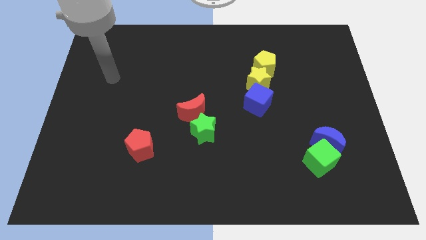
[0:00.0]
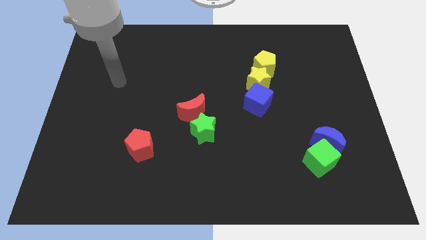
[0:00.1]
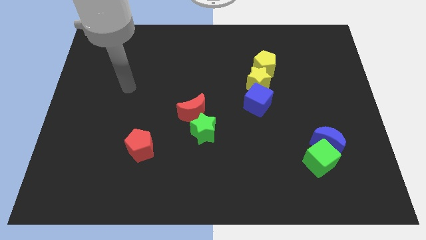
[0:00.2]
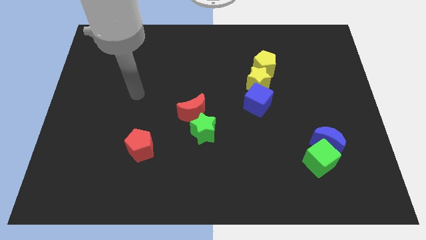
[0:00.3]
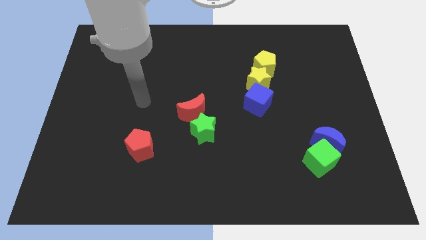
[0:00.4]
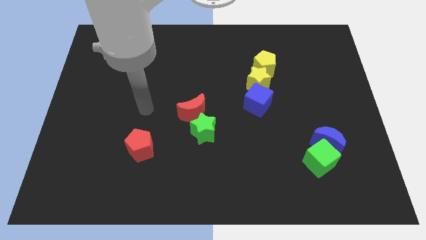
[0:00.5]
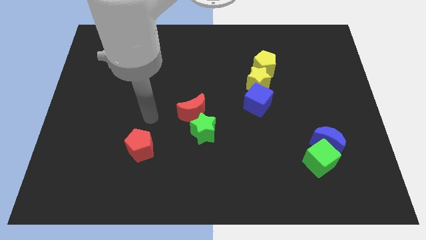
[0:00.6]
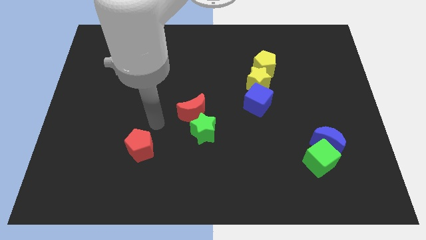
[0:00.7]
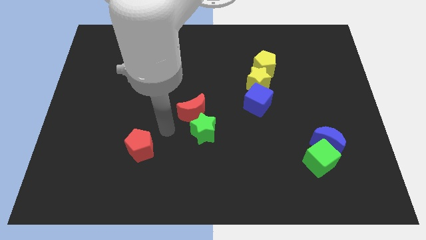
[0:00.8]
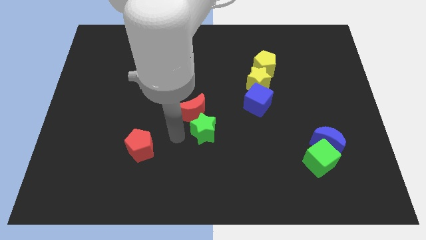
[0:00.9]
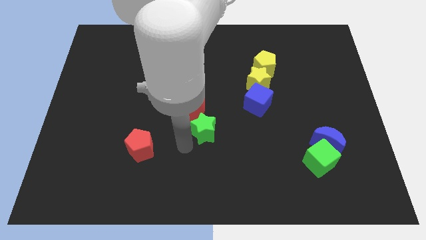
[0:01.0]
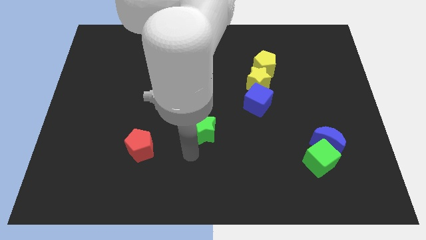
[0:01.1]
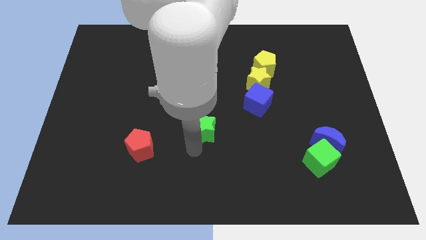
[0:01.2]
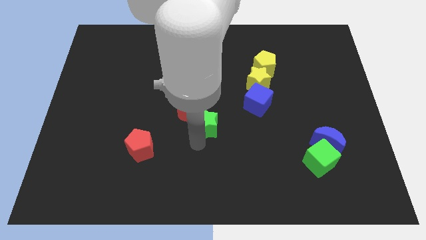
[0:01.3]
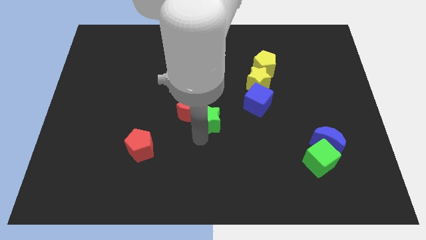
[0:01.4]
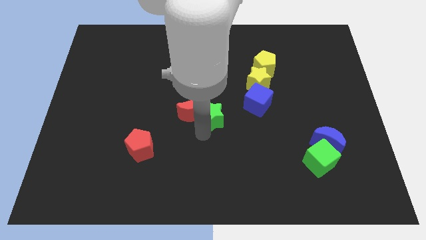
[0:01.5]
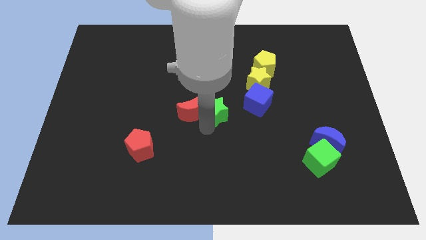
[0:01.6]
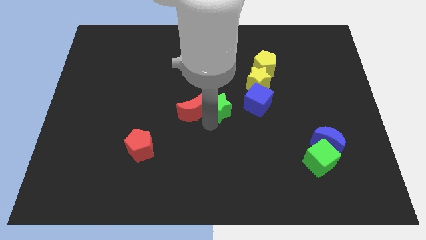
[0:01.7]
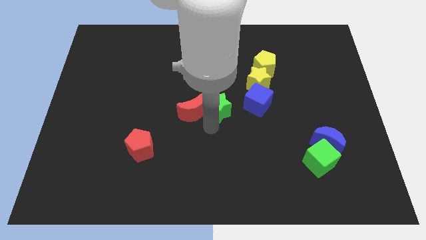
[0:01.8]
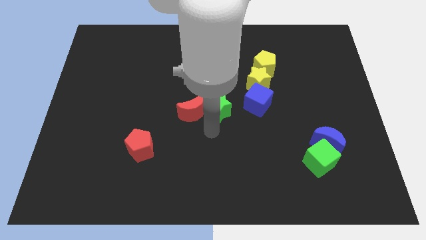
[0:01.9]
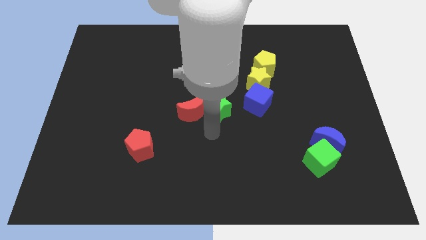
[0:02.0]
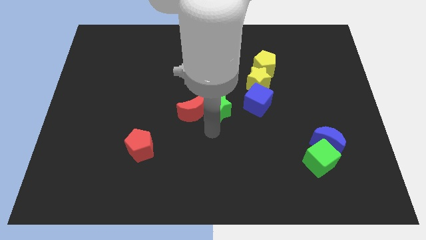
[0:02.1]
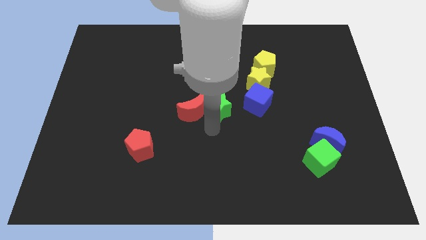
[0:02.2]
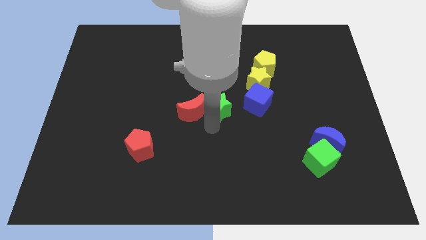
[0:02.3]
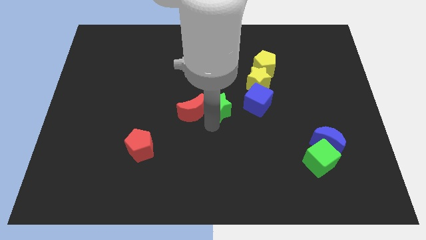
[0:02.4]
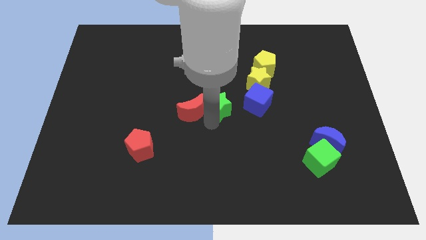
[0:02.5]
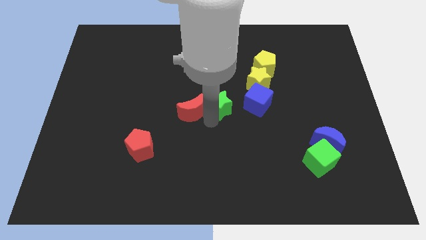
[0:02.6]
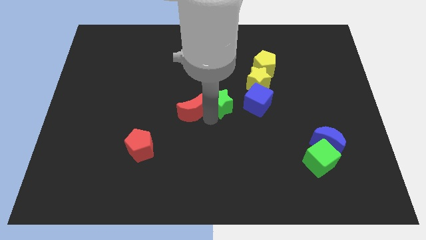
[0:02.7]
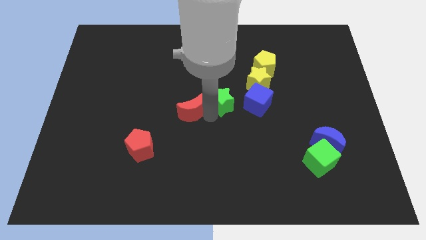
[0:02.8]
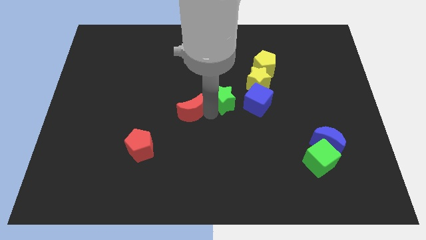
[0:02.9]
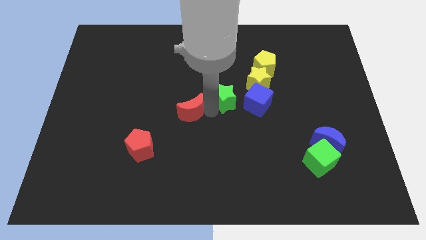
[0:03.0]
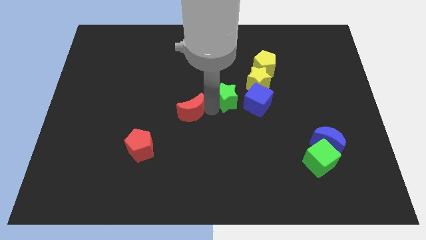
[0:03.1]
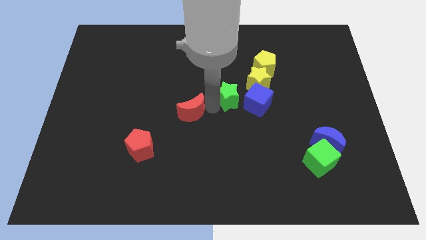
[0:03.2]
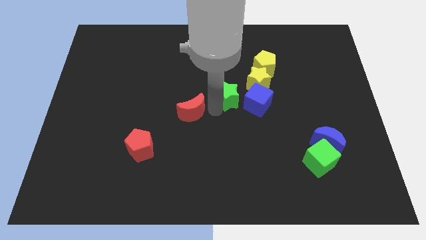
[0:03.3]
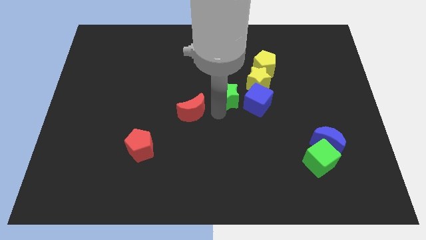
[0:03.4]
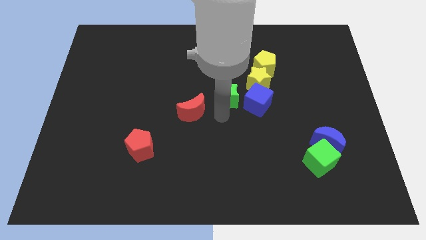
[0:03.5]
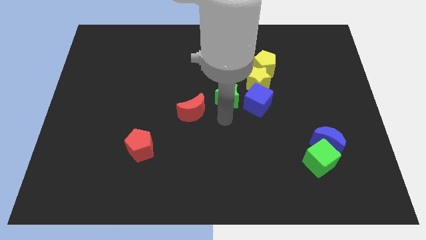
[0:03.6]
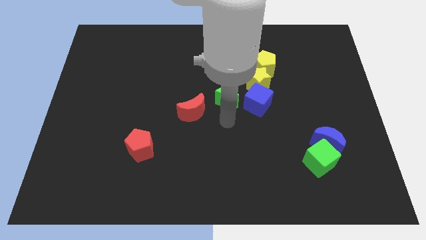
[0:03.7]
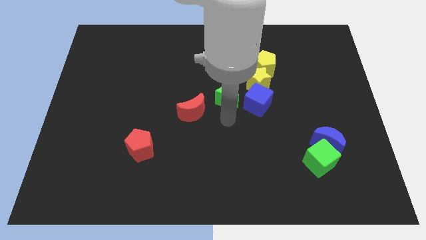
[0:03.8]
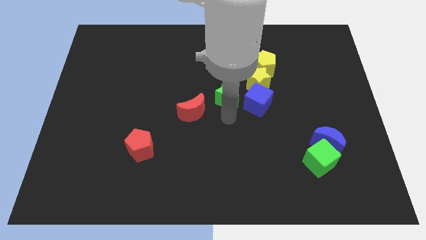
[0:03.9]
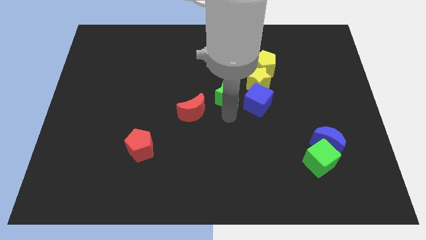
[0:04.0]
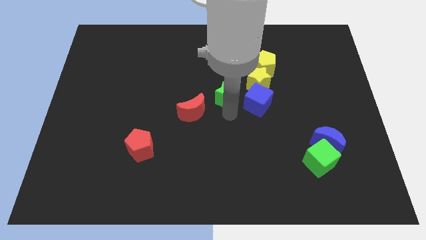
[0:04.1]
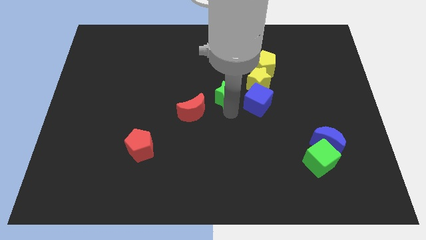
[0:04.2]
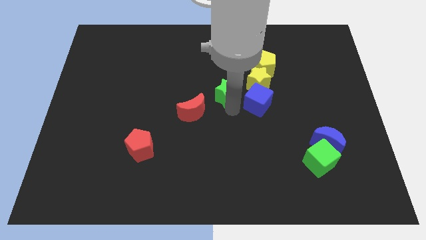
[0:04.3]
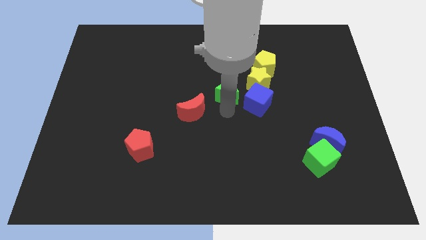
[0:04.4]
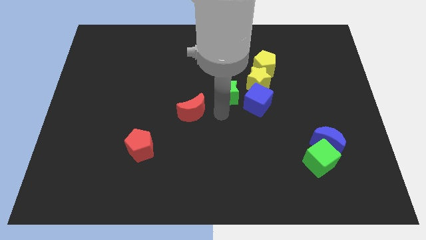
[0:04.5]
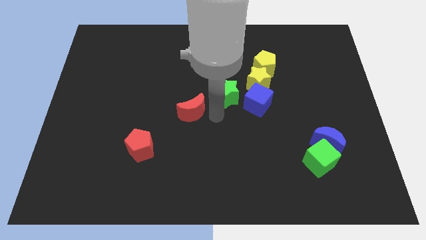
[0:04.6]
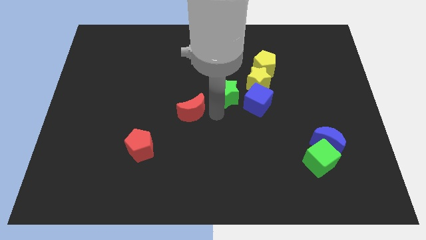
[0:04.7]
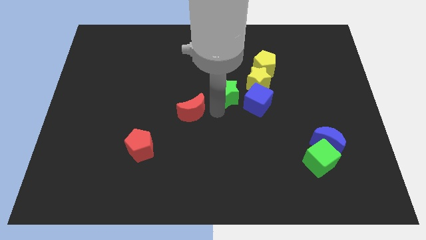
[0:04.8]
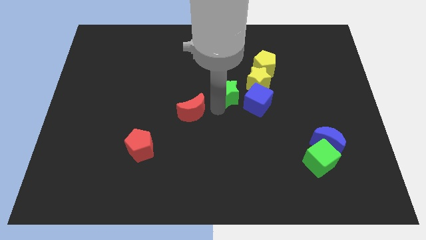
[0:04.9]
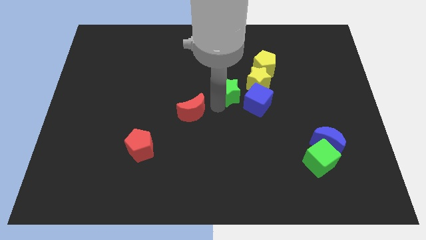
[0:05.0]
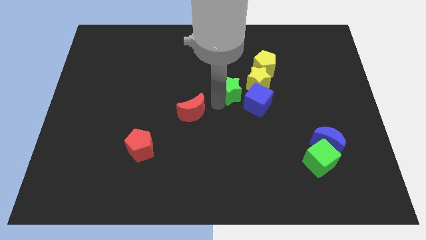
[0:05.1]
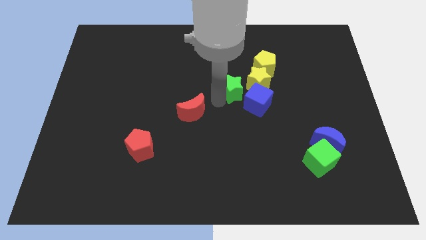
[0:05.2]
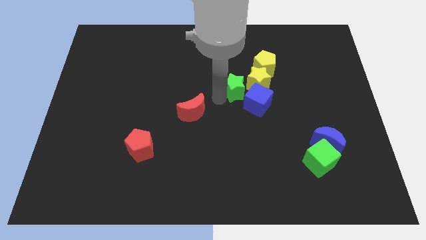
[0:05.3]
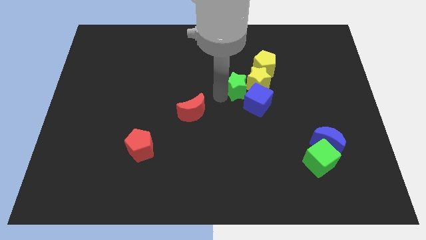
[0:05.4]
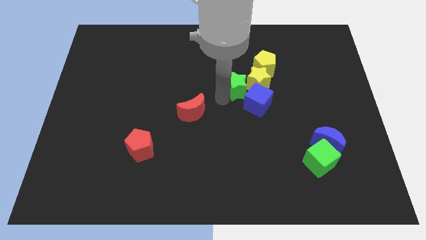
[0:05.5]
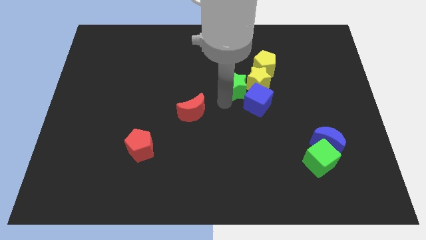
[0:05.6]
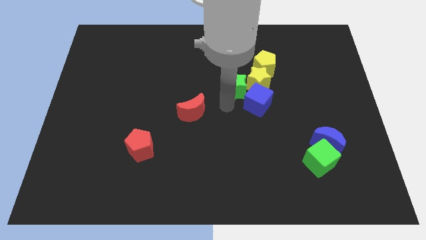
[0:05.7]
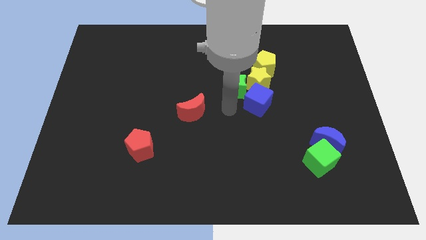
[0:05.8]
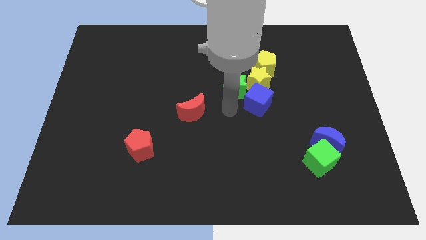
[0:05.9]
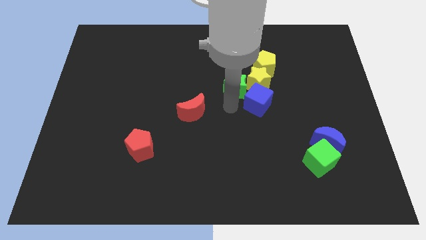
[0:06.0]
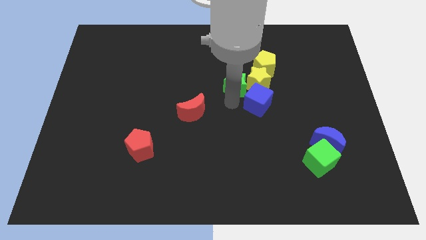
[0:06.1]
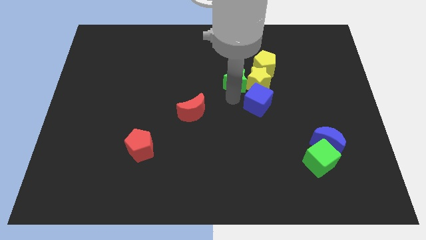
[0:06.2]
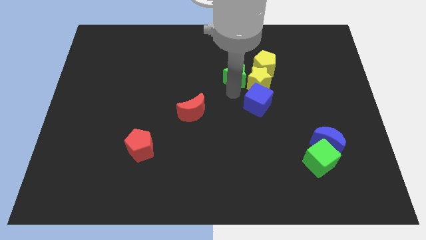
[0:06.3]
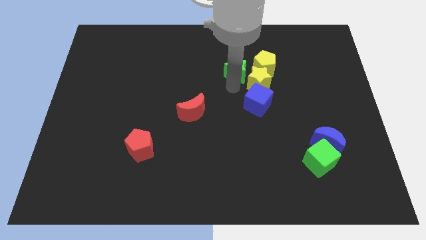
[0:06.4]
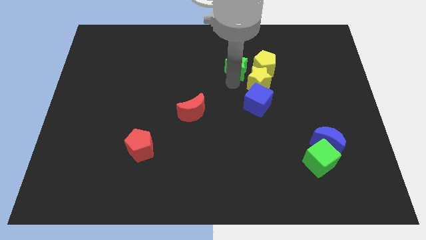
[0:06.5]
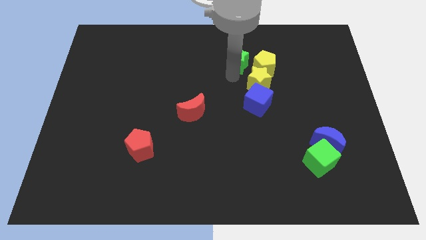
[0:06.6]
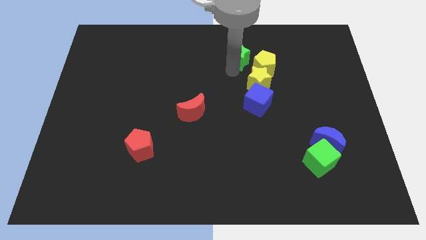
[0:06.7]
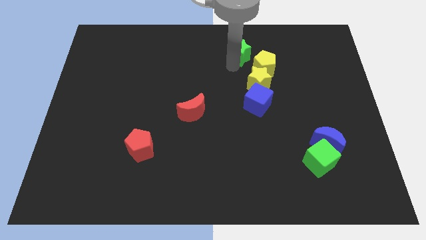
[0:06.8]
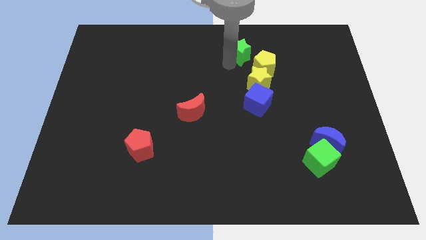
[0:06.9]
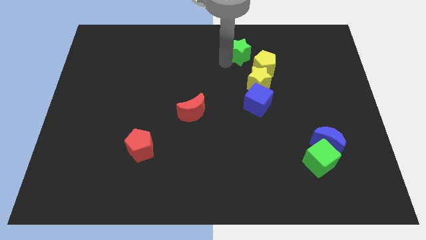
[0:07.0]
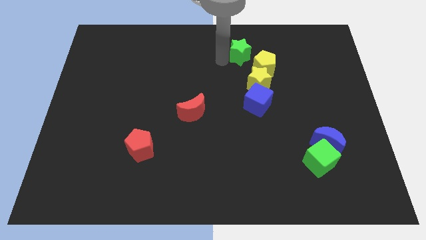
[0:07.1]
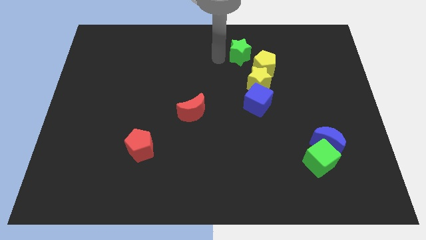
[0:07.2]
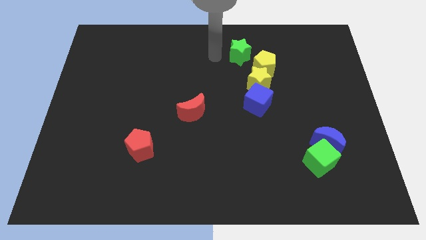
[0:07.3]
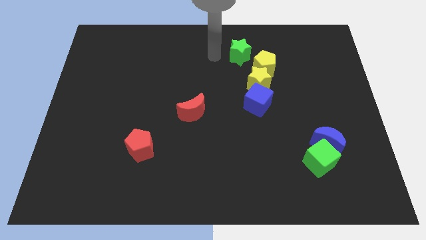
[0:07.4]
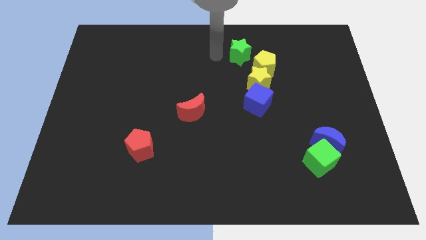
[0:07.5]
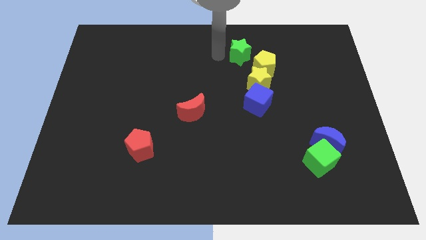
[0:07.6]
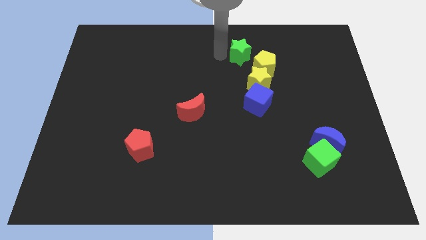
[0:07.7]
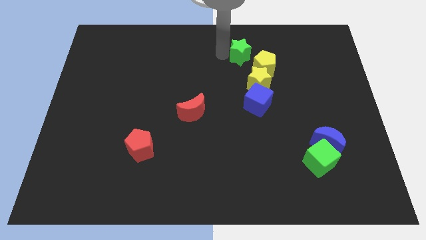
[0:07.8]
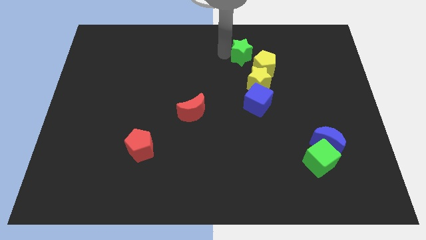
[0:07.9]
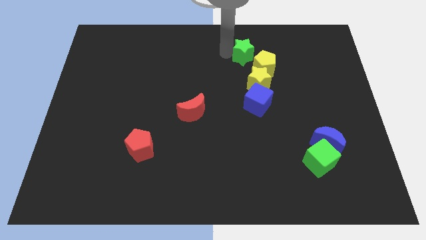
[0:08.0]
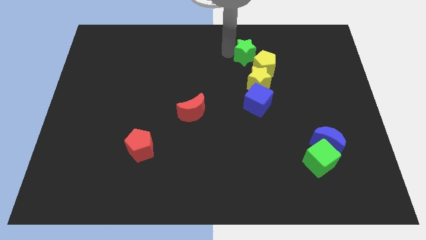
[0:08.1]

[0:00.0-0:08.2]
move the green star up and to the right
